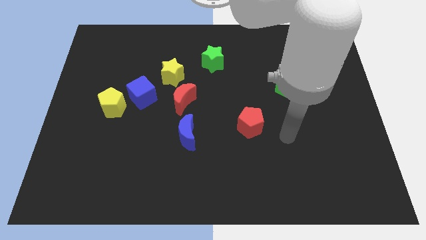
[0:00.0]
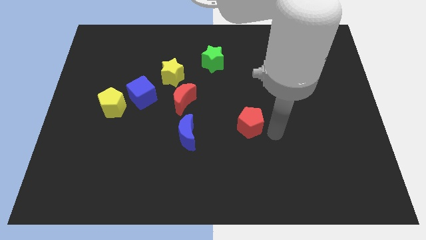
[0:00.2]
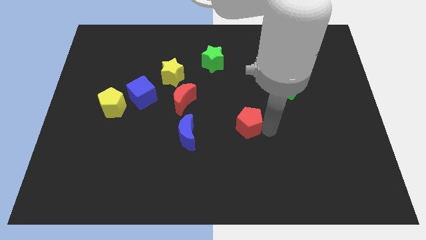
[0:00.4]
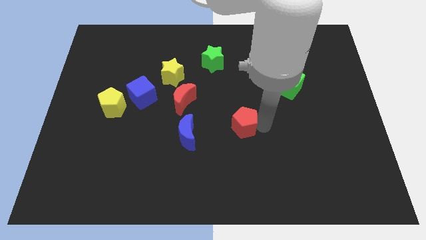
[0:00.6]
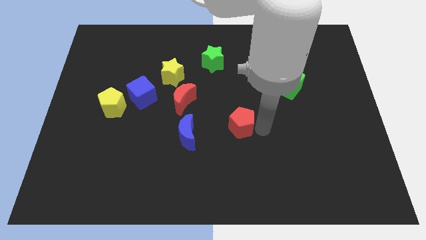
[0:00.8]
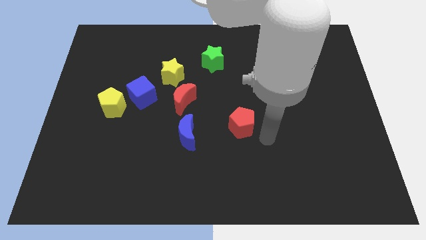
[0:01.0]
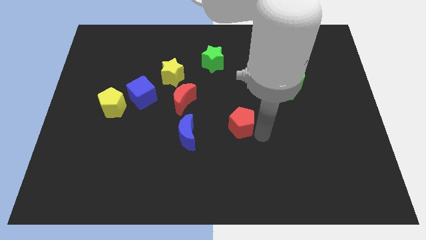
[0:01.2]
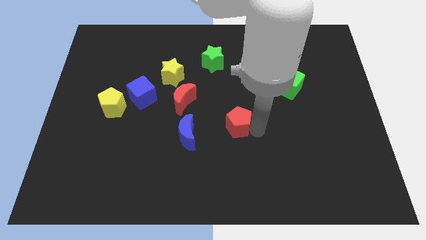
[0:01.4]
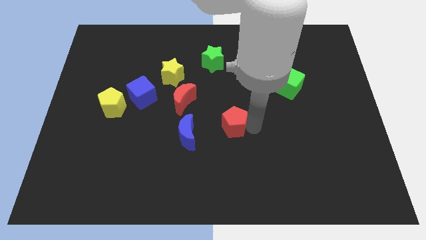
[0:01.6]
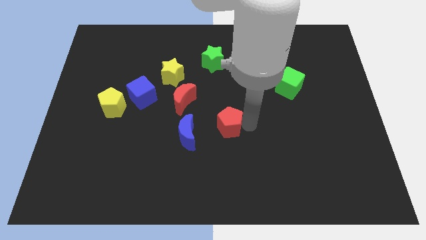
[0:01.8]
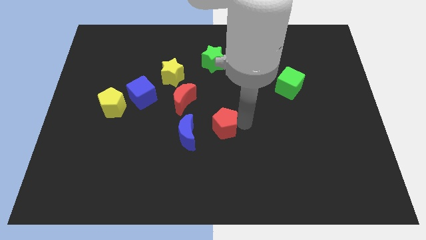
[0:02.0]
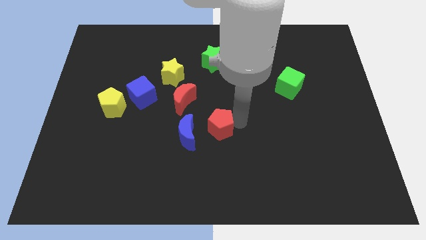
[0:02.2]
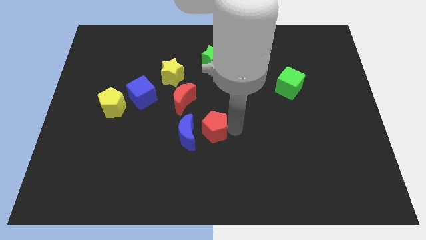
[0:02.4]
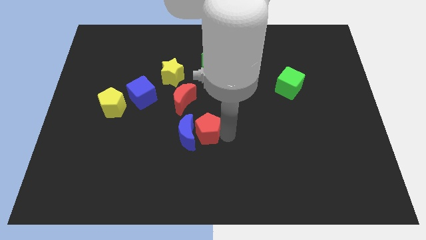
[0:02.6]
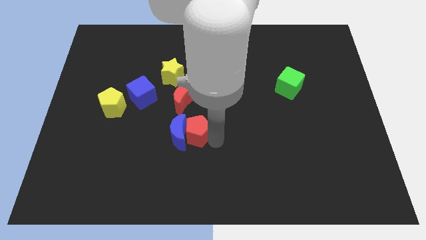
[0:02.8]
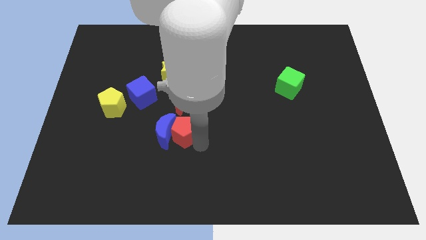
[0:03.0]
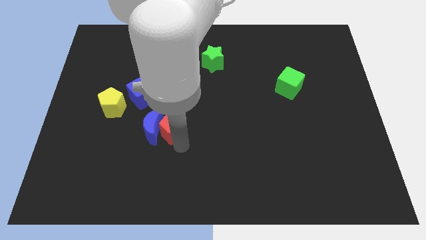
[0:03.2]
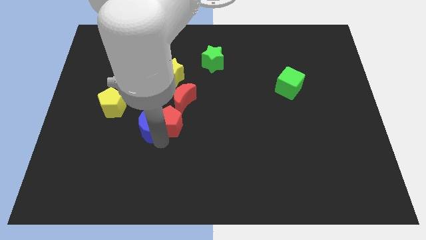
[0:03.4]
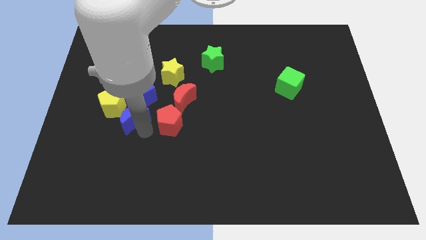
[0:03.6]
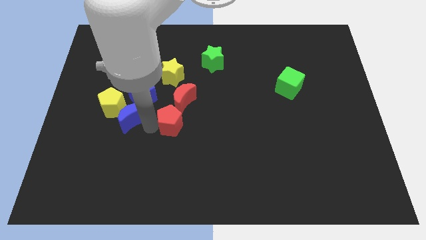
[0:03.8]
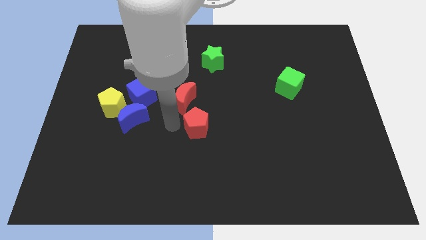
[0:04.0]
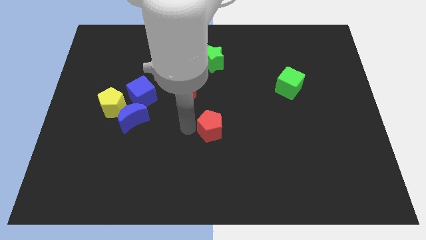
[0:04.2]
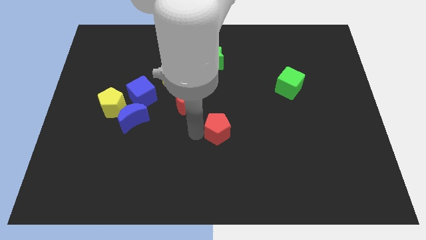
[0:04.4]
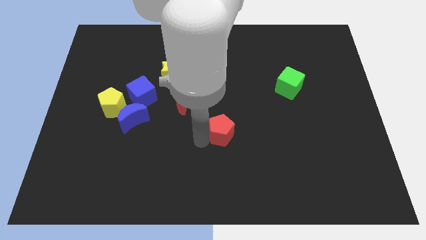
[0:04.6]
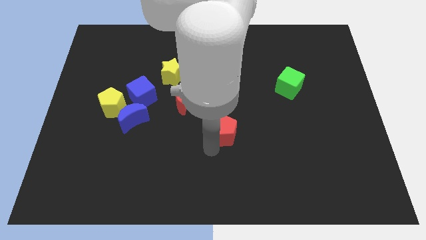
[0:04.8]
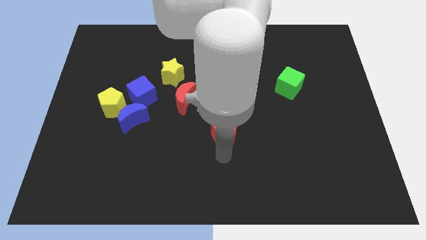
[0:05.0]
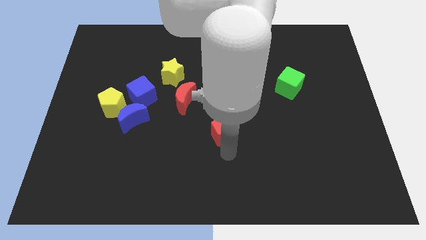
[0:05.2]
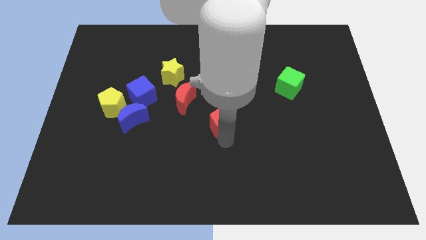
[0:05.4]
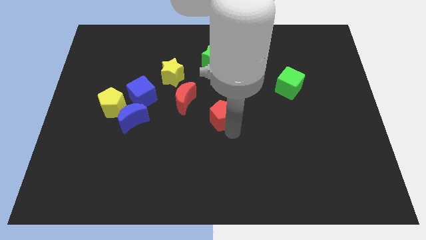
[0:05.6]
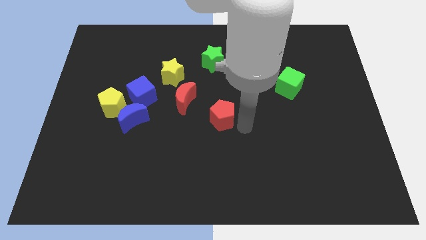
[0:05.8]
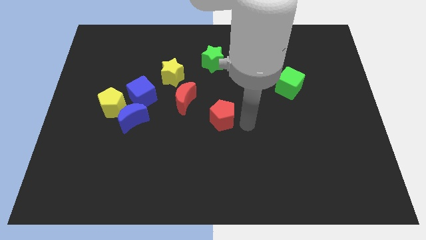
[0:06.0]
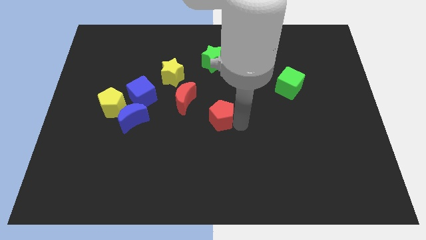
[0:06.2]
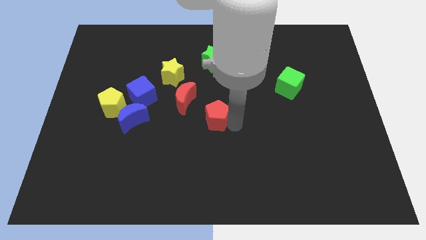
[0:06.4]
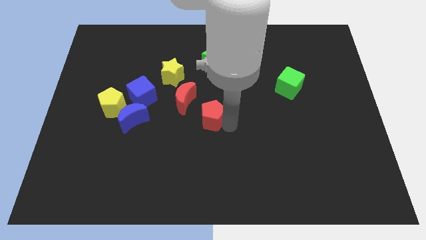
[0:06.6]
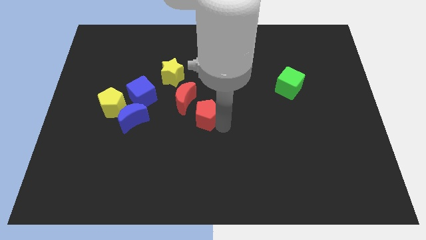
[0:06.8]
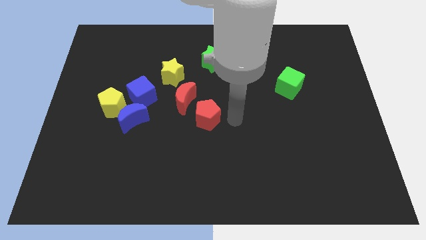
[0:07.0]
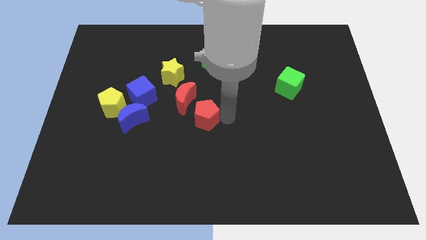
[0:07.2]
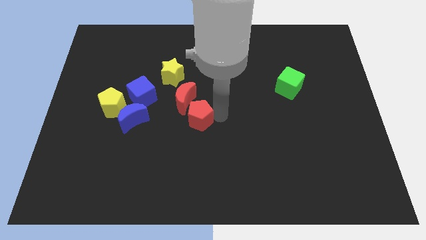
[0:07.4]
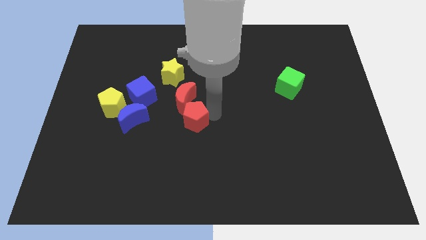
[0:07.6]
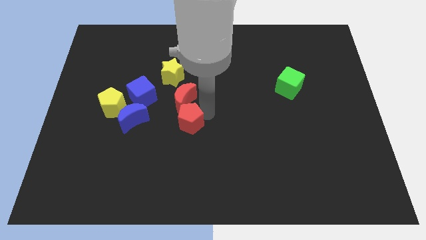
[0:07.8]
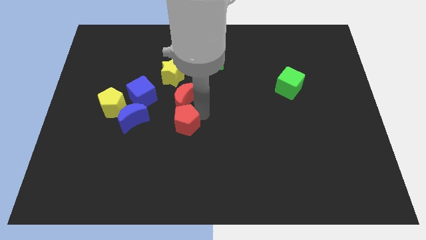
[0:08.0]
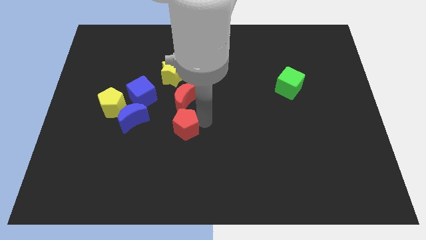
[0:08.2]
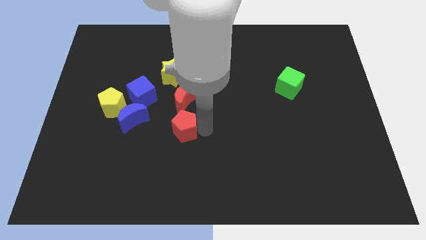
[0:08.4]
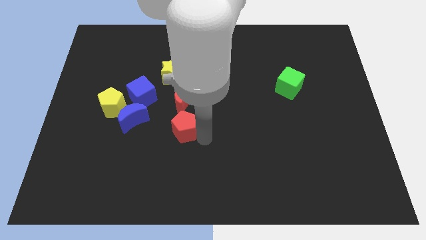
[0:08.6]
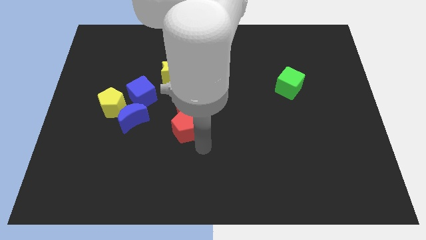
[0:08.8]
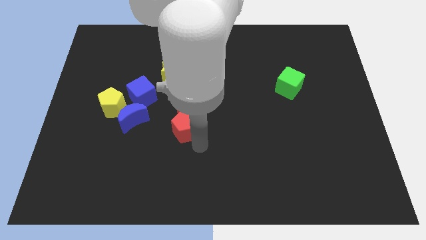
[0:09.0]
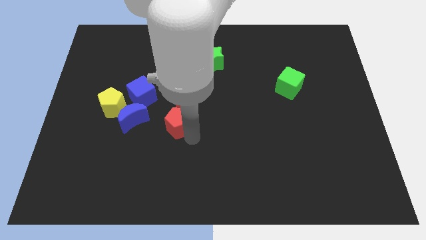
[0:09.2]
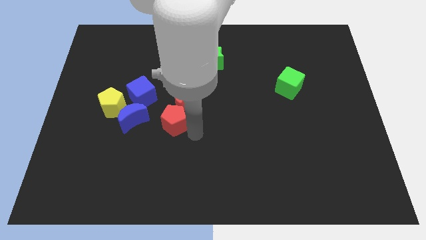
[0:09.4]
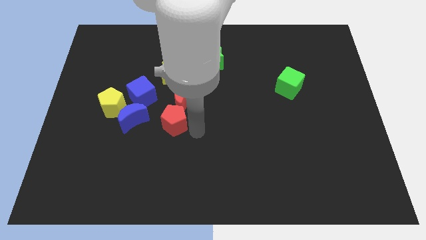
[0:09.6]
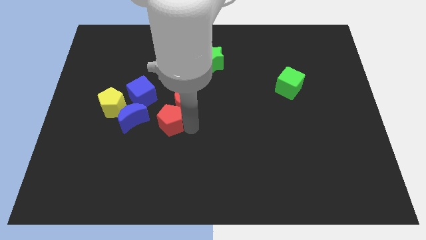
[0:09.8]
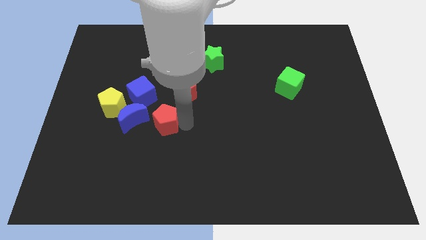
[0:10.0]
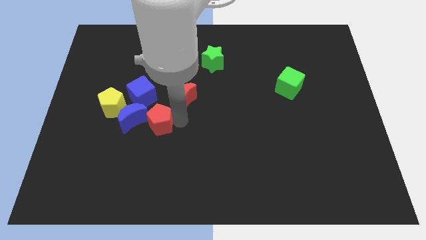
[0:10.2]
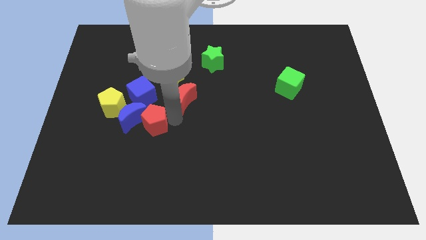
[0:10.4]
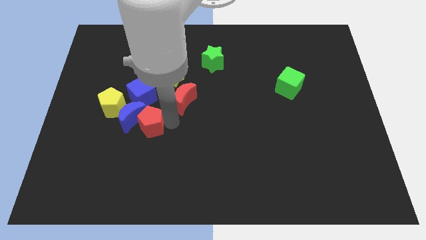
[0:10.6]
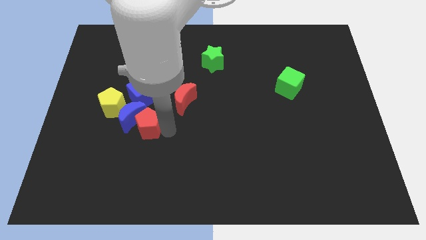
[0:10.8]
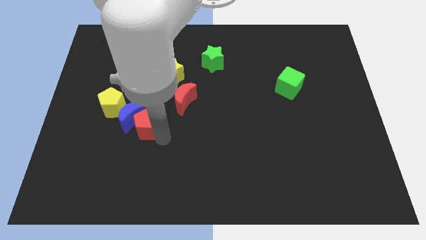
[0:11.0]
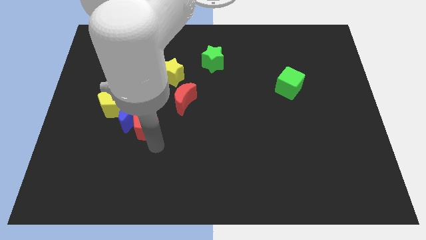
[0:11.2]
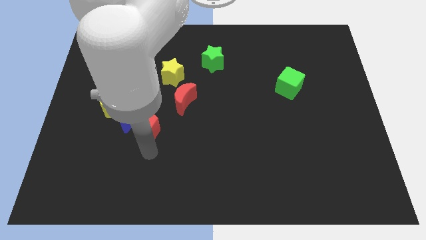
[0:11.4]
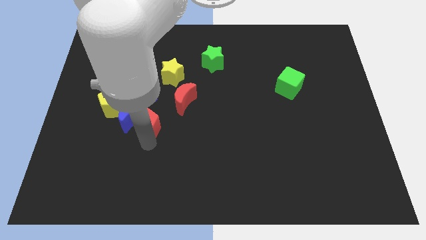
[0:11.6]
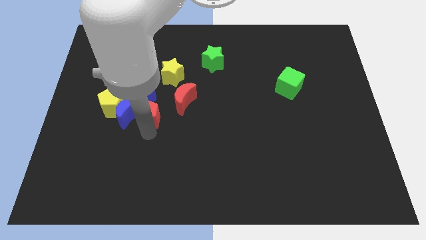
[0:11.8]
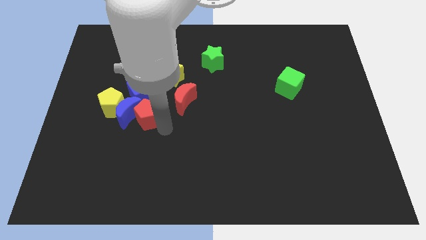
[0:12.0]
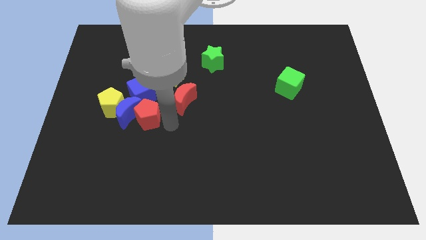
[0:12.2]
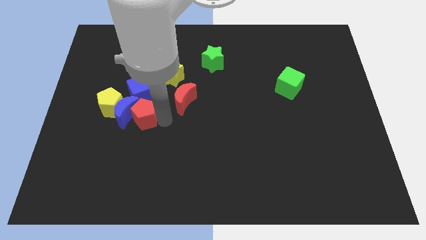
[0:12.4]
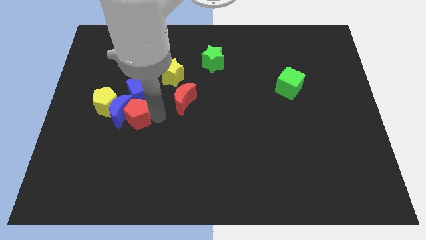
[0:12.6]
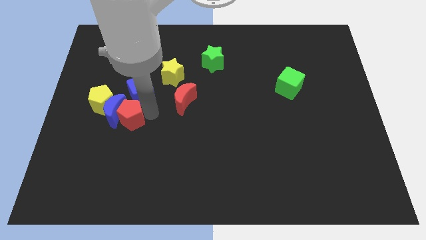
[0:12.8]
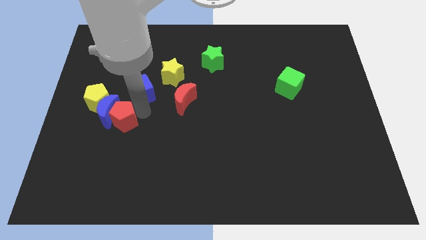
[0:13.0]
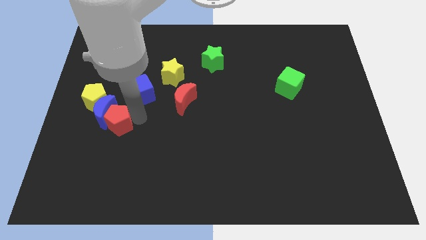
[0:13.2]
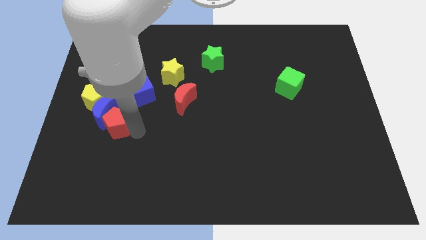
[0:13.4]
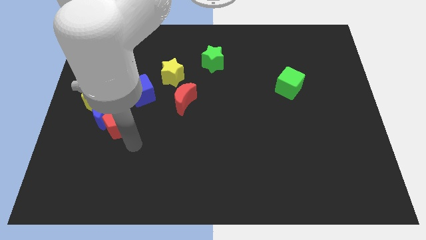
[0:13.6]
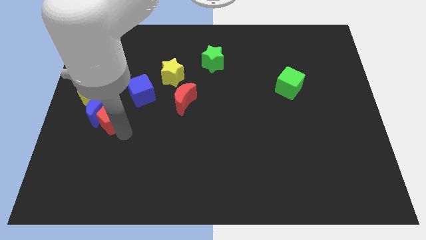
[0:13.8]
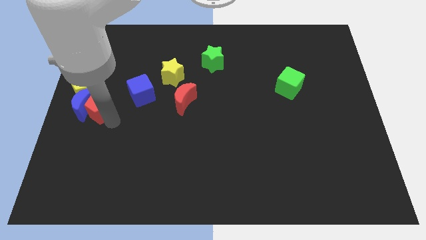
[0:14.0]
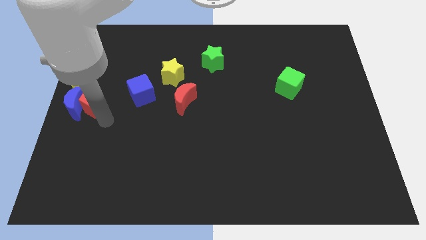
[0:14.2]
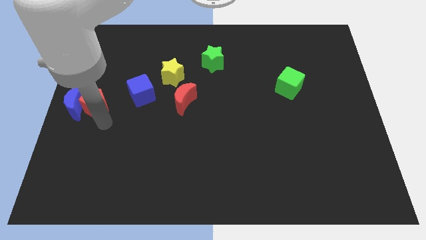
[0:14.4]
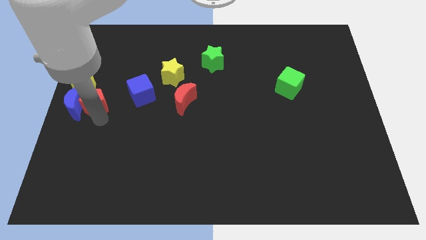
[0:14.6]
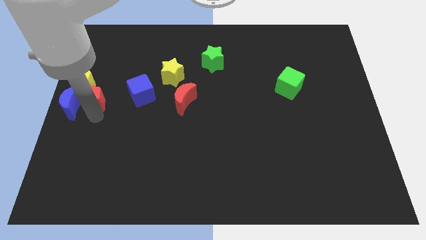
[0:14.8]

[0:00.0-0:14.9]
put the red pentagon to the yellow pentagon
